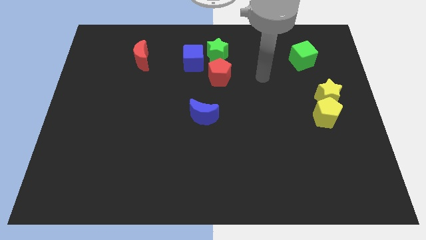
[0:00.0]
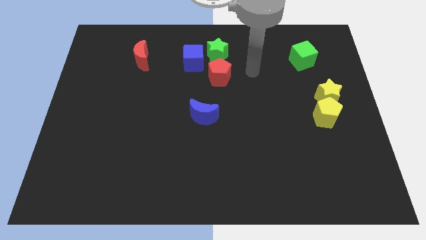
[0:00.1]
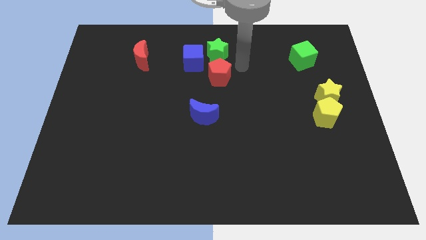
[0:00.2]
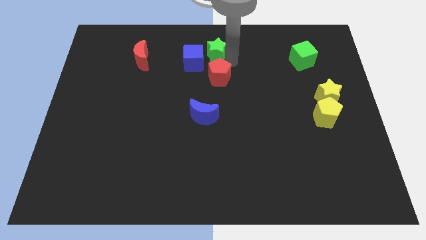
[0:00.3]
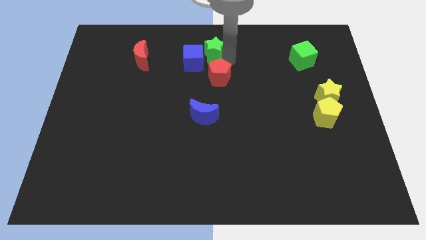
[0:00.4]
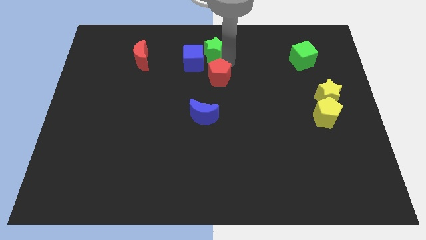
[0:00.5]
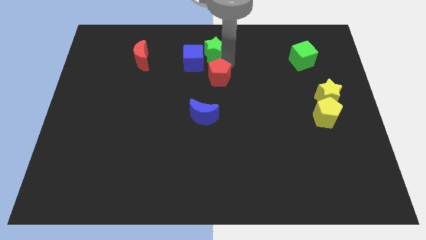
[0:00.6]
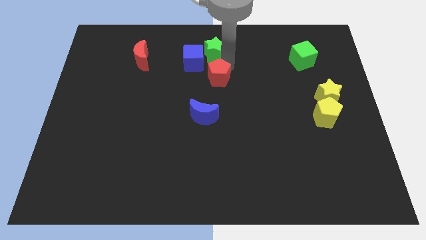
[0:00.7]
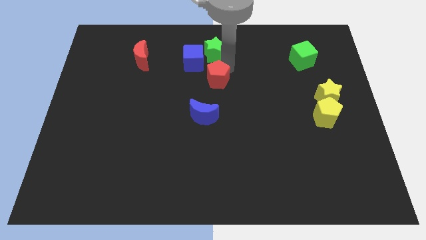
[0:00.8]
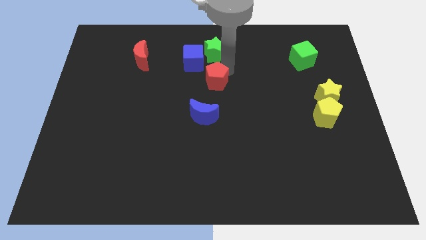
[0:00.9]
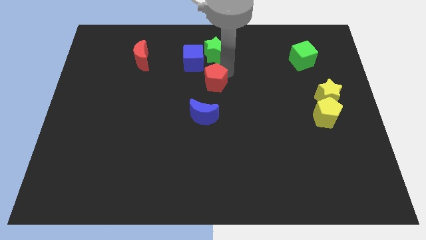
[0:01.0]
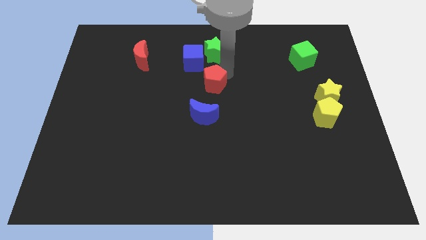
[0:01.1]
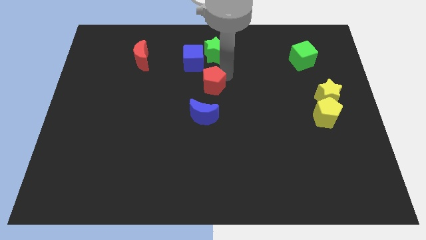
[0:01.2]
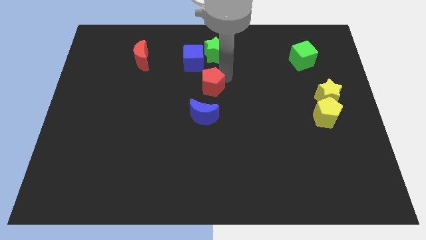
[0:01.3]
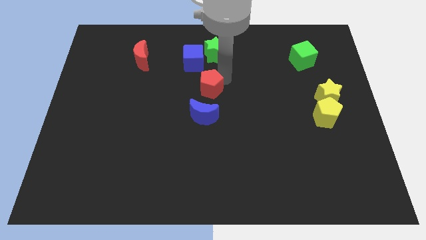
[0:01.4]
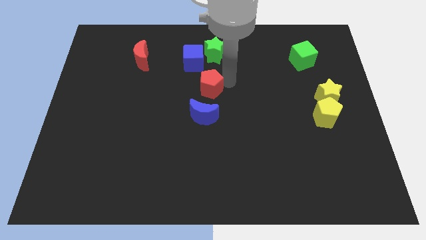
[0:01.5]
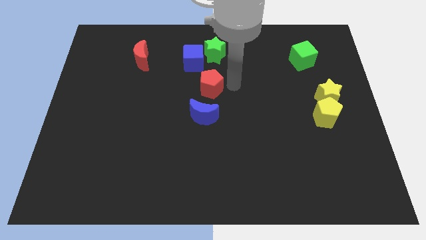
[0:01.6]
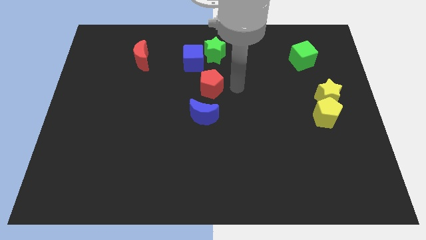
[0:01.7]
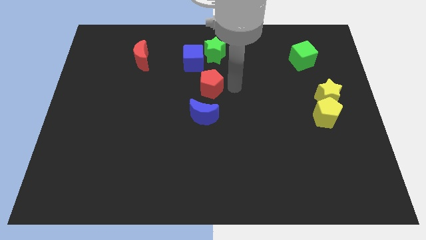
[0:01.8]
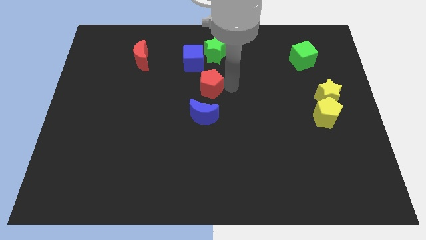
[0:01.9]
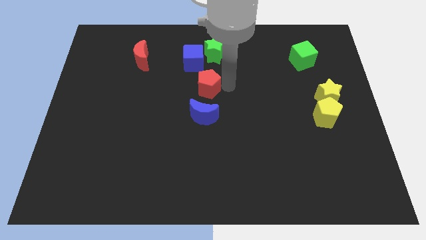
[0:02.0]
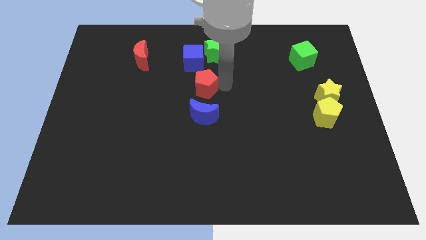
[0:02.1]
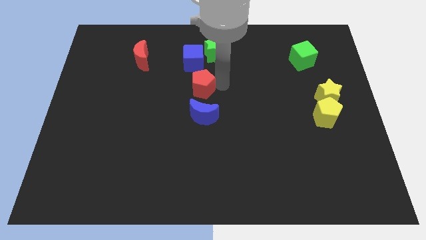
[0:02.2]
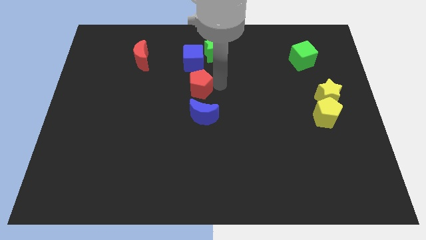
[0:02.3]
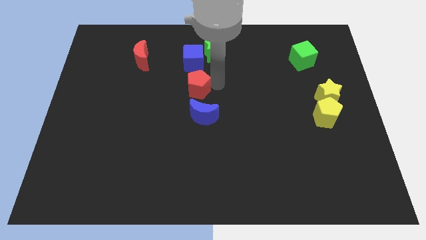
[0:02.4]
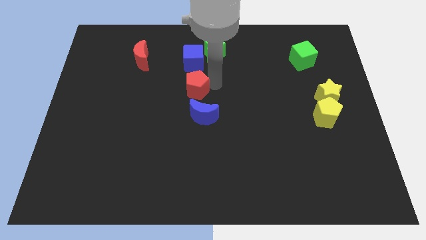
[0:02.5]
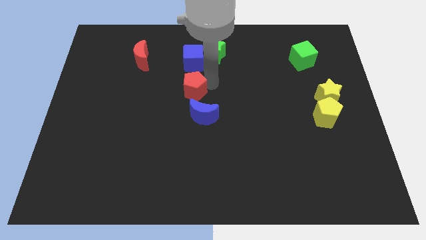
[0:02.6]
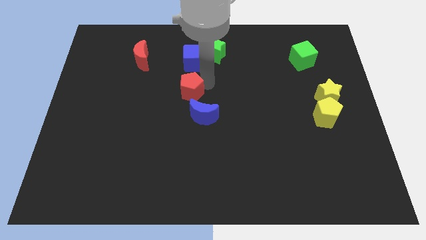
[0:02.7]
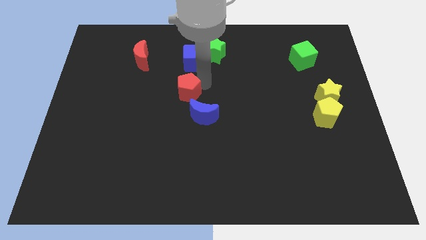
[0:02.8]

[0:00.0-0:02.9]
slide the red pentagon to the left a bit

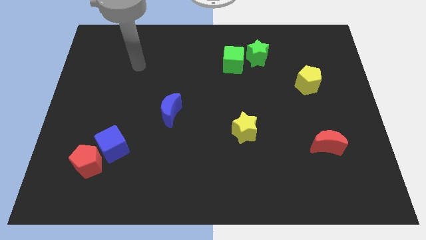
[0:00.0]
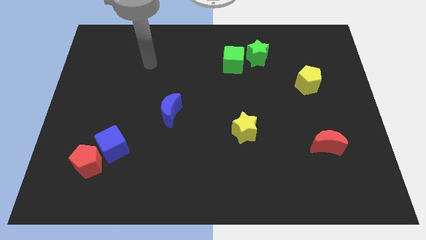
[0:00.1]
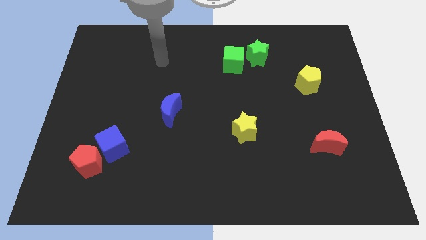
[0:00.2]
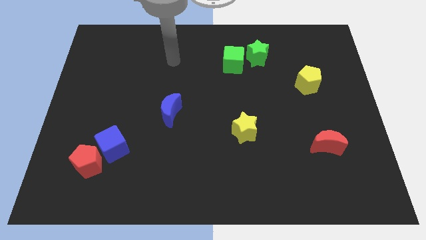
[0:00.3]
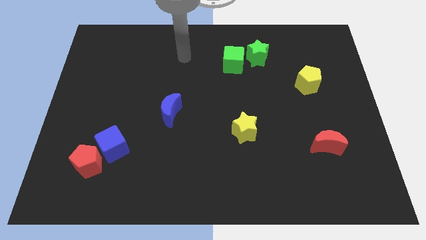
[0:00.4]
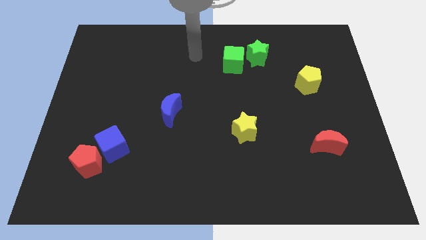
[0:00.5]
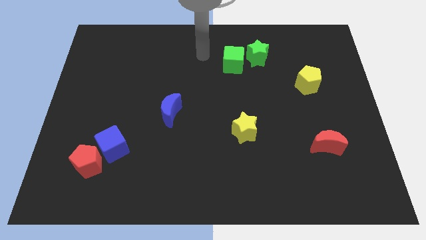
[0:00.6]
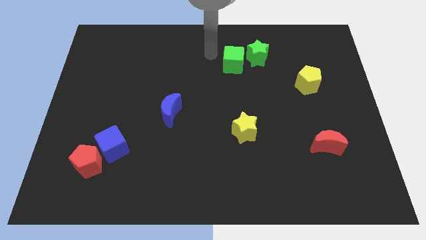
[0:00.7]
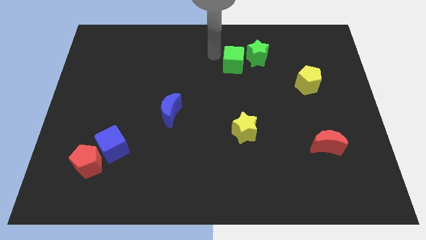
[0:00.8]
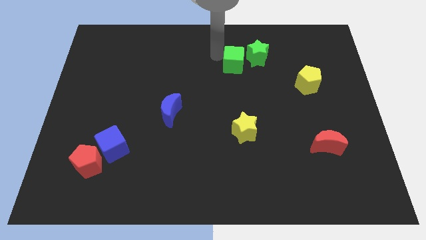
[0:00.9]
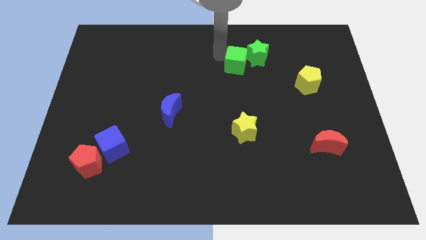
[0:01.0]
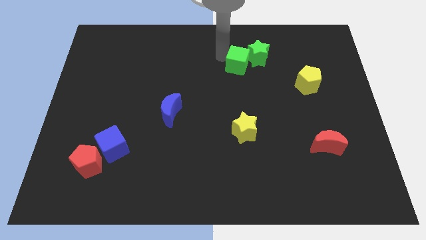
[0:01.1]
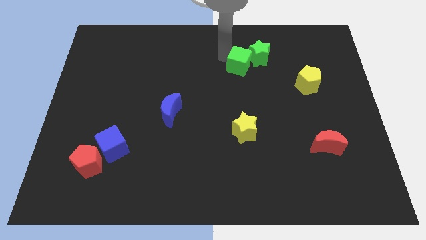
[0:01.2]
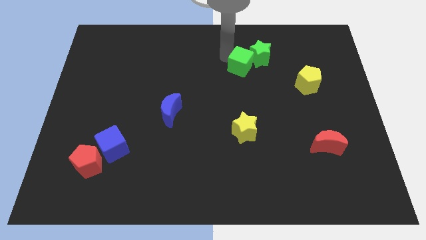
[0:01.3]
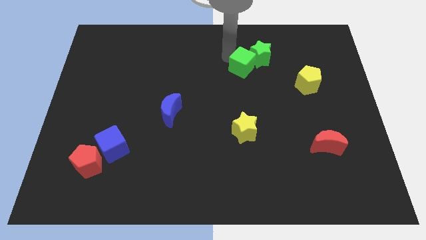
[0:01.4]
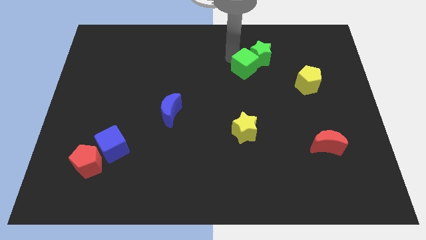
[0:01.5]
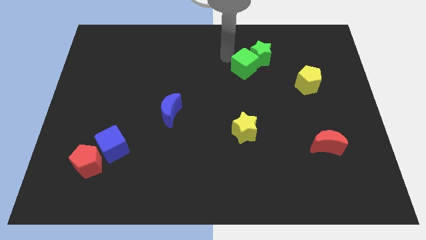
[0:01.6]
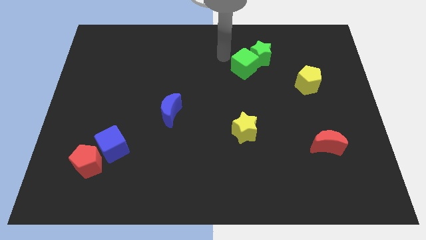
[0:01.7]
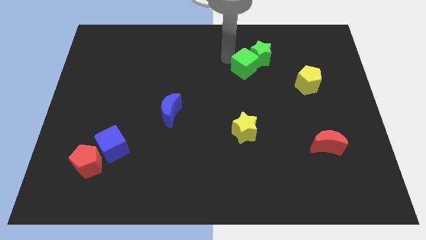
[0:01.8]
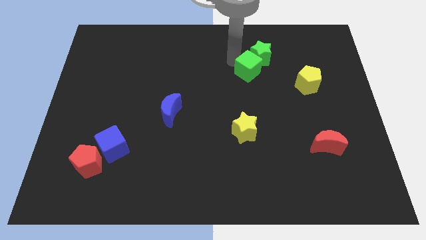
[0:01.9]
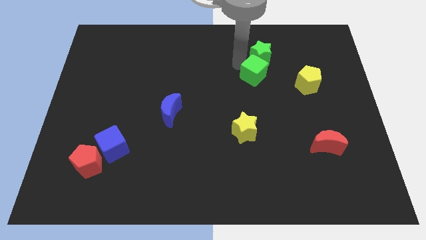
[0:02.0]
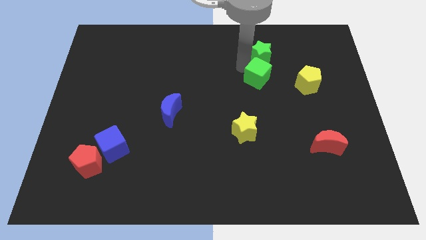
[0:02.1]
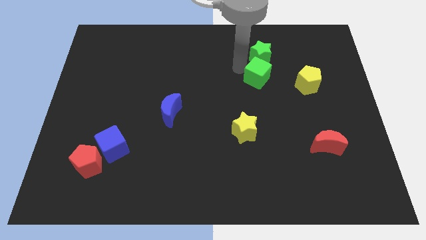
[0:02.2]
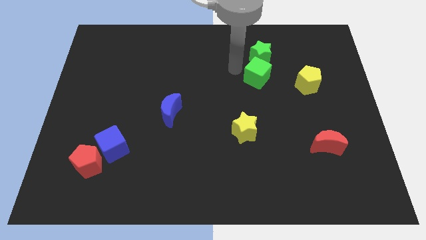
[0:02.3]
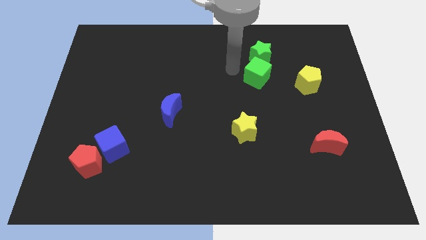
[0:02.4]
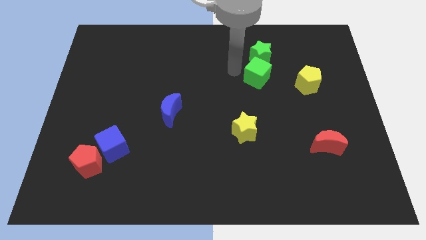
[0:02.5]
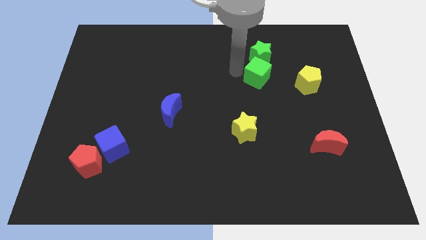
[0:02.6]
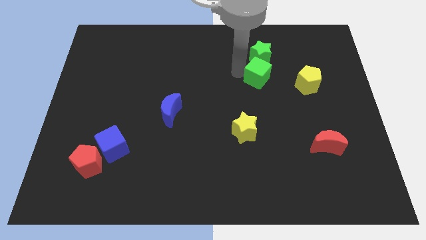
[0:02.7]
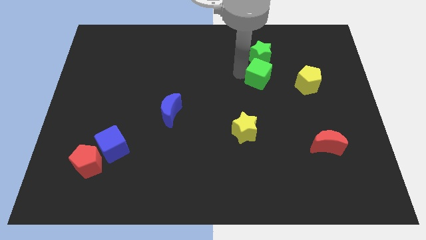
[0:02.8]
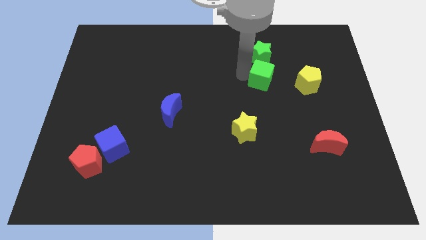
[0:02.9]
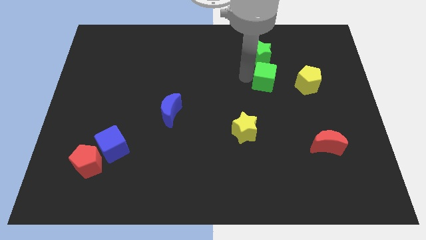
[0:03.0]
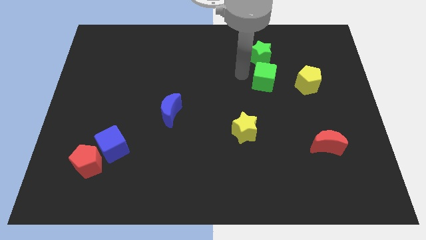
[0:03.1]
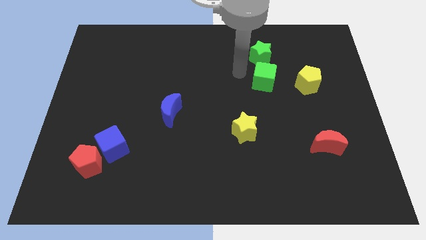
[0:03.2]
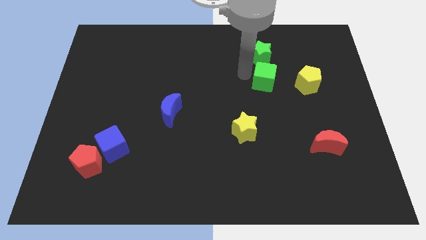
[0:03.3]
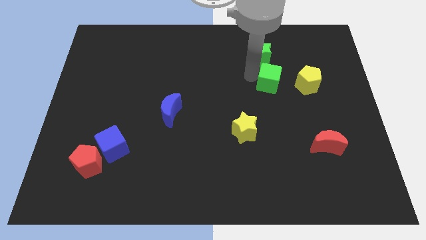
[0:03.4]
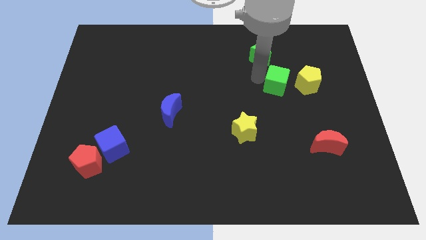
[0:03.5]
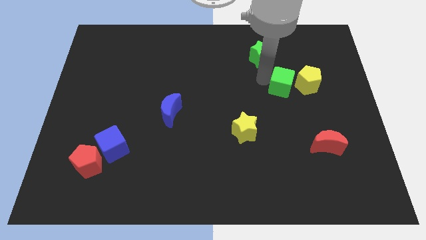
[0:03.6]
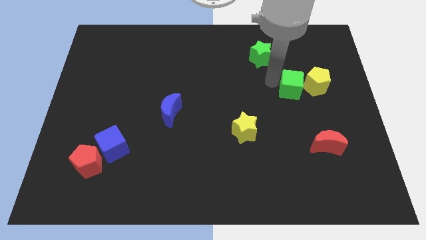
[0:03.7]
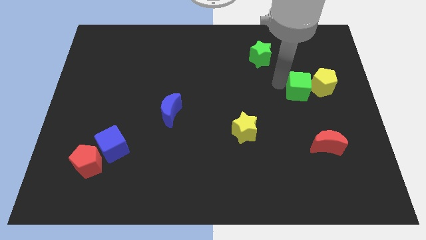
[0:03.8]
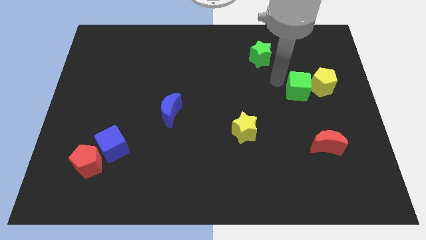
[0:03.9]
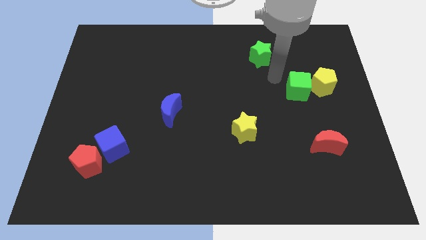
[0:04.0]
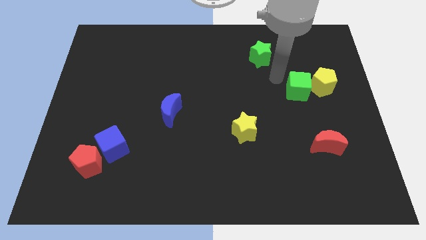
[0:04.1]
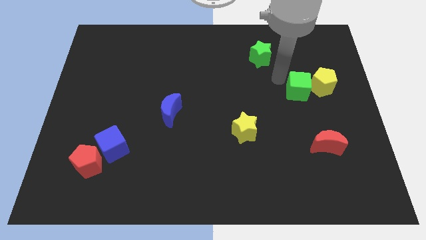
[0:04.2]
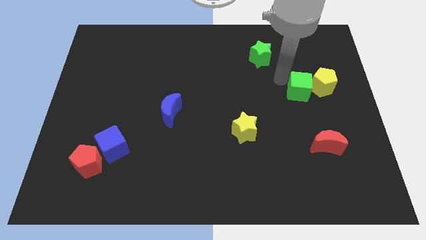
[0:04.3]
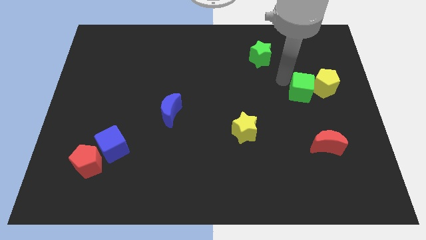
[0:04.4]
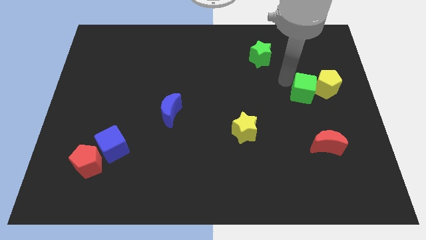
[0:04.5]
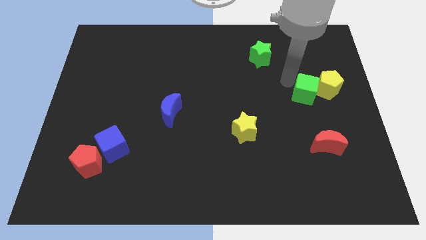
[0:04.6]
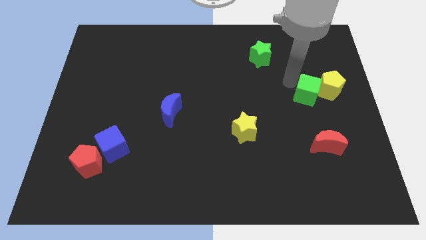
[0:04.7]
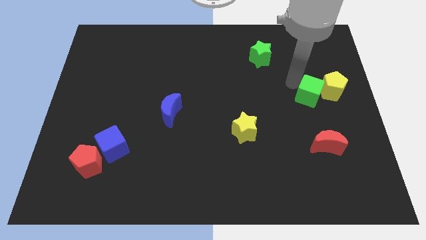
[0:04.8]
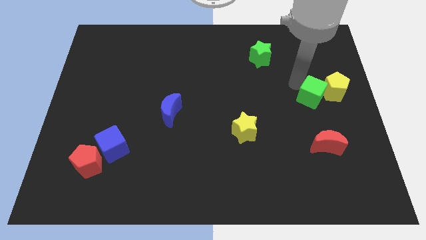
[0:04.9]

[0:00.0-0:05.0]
slide the green cube downwards and right

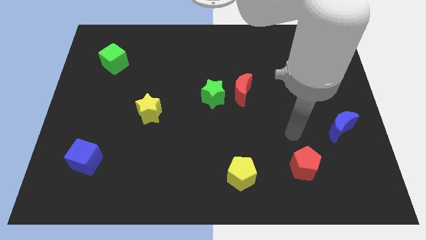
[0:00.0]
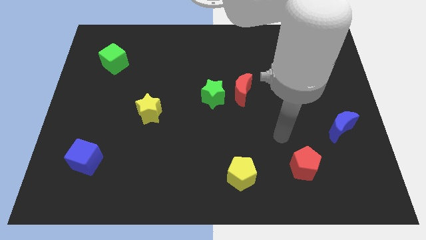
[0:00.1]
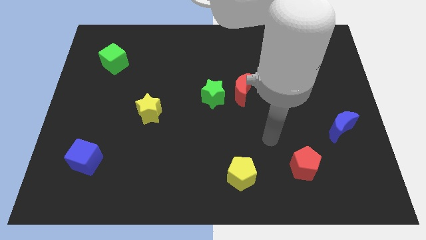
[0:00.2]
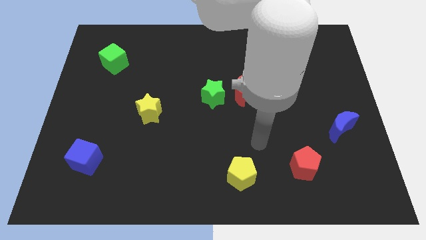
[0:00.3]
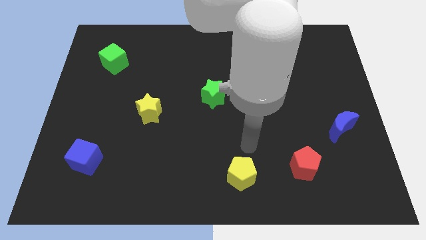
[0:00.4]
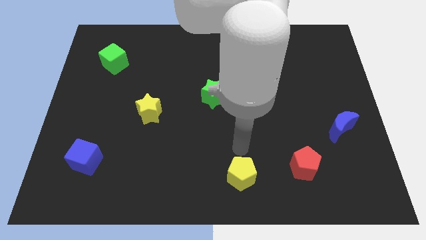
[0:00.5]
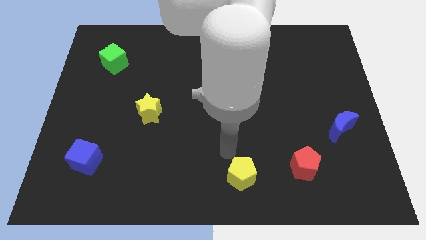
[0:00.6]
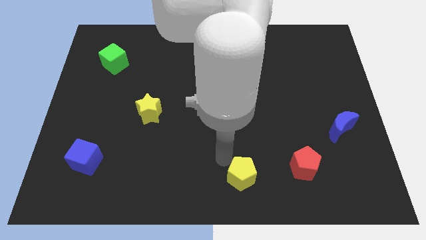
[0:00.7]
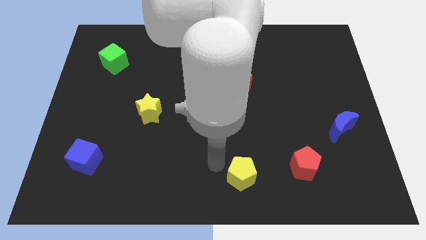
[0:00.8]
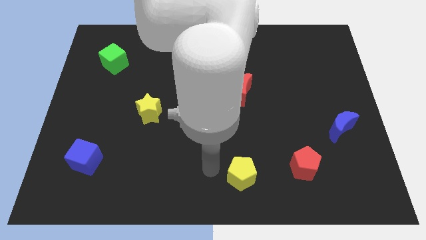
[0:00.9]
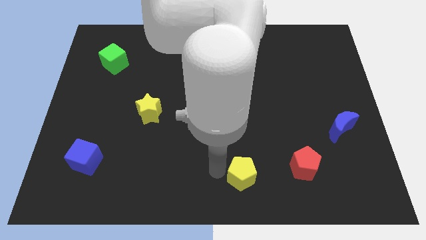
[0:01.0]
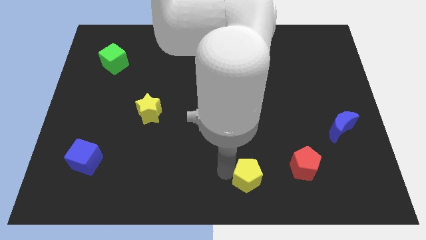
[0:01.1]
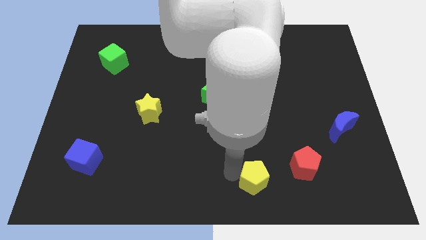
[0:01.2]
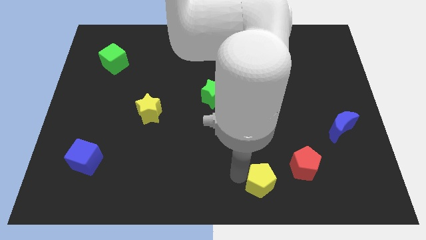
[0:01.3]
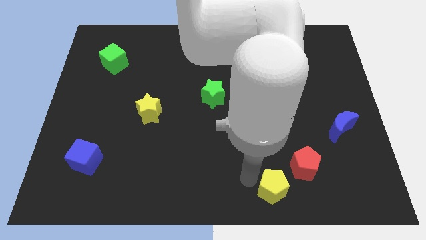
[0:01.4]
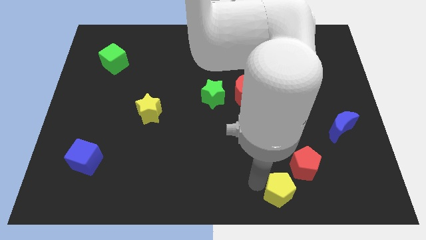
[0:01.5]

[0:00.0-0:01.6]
push the yellow pentagon a little bit to the right
